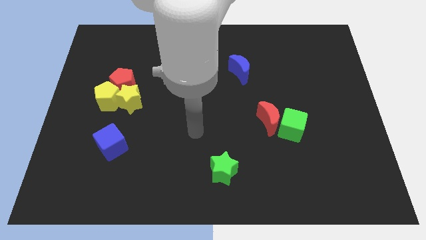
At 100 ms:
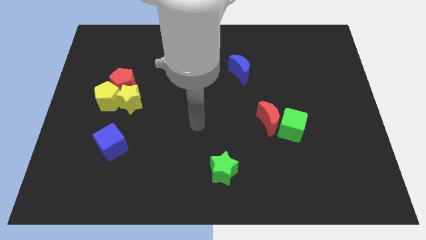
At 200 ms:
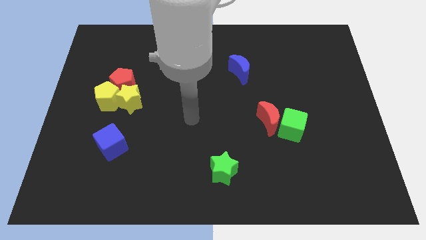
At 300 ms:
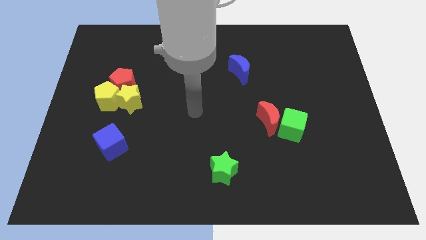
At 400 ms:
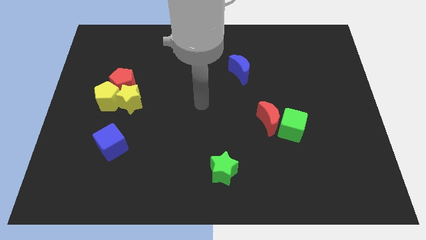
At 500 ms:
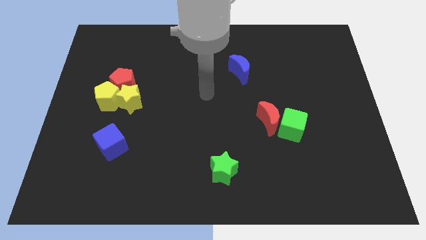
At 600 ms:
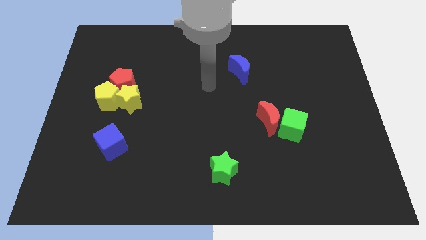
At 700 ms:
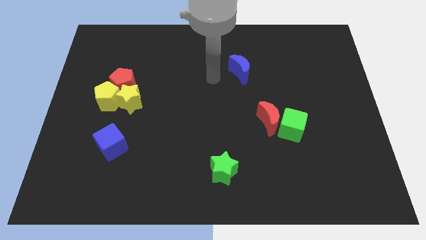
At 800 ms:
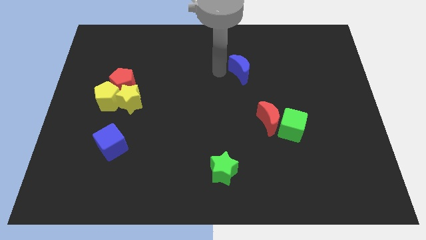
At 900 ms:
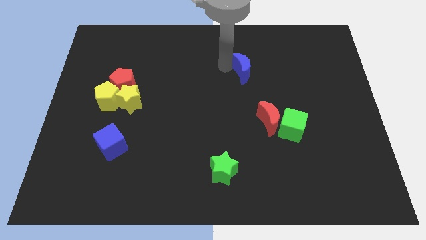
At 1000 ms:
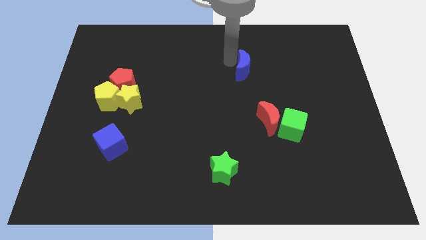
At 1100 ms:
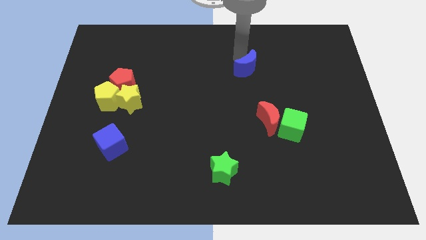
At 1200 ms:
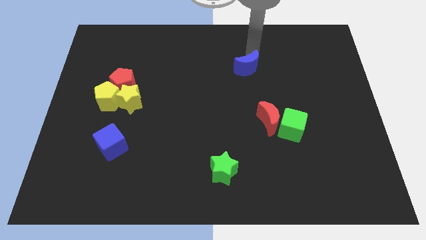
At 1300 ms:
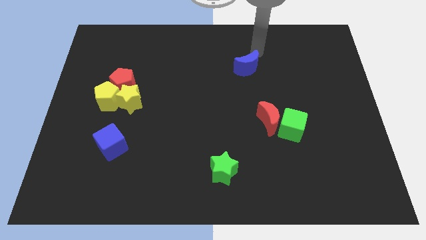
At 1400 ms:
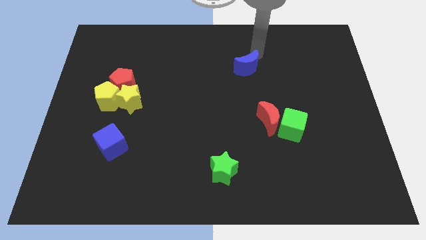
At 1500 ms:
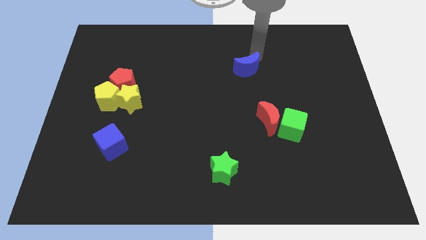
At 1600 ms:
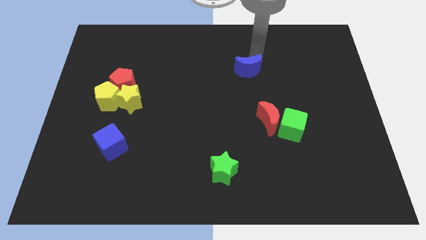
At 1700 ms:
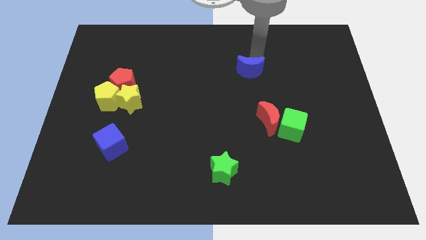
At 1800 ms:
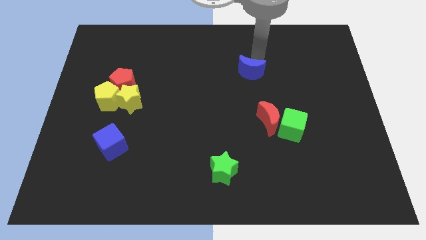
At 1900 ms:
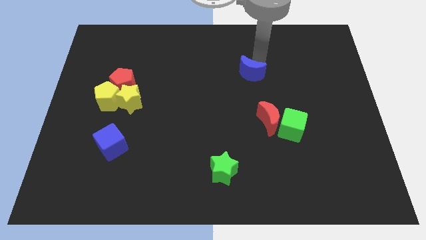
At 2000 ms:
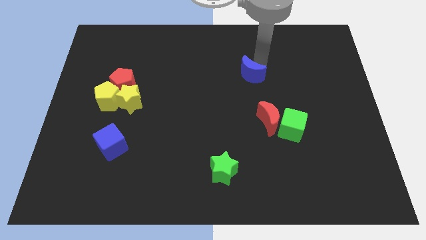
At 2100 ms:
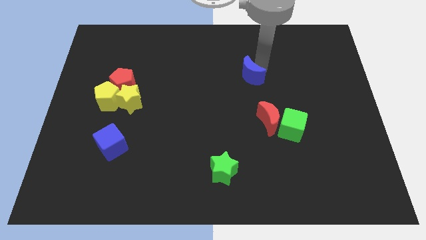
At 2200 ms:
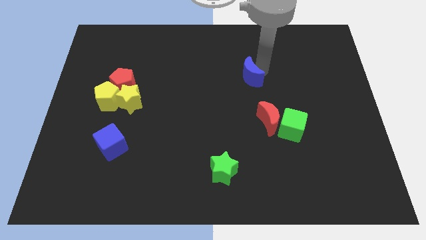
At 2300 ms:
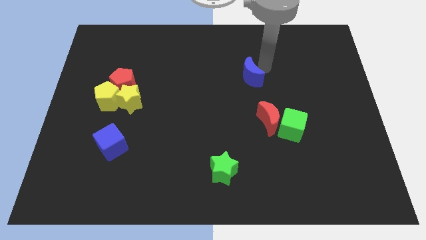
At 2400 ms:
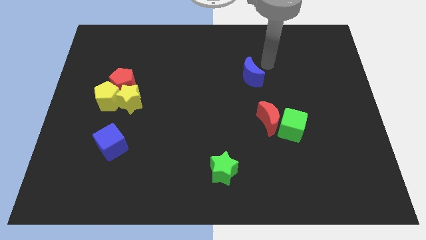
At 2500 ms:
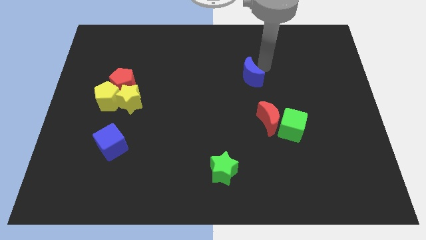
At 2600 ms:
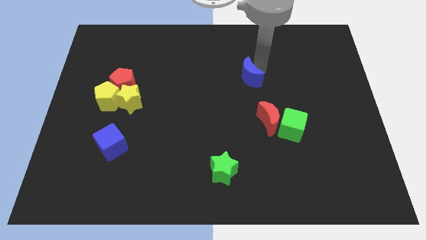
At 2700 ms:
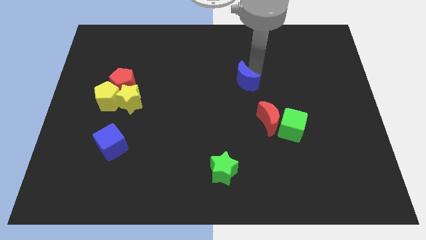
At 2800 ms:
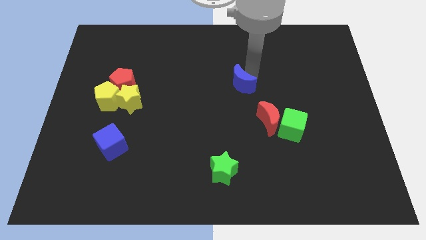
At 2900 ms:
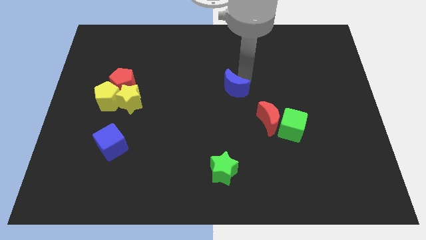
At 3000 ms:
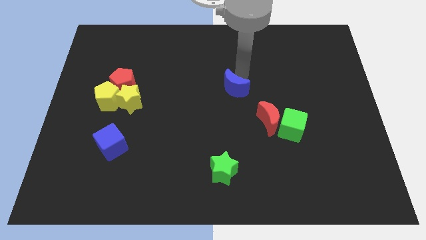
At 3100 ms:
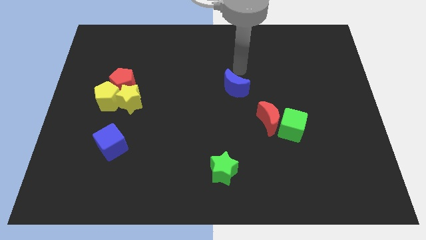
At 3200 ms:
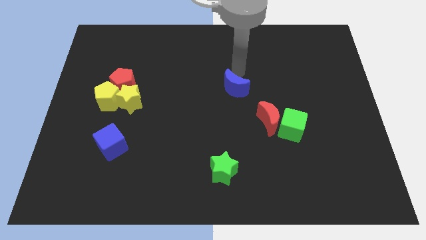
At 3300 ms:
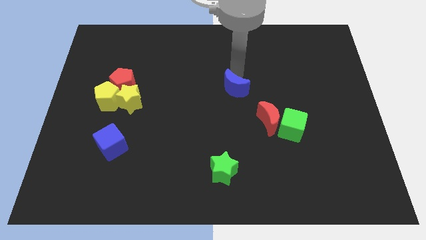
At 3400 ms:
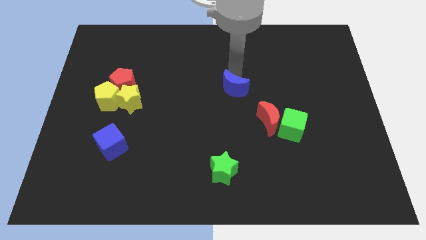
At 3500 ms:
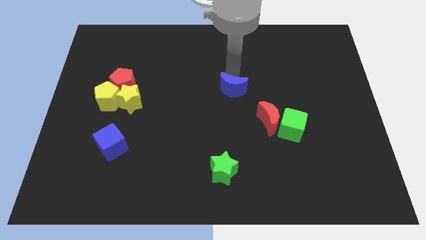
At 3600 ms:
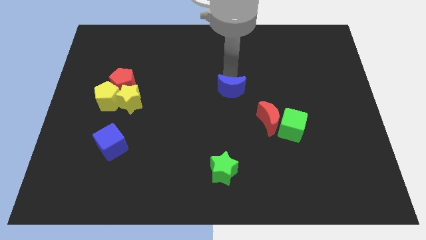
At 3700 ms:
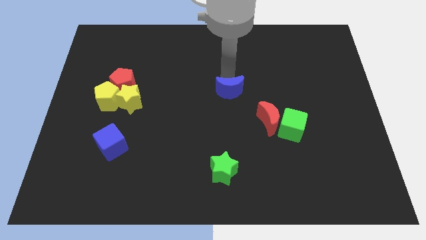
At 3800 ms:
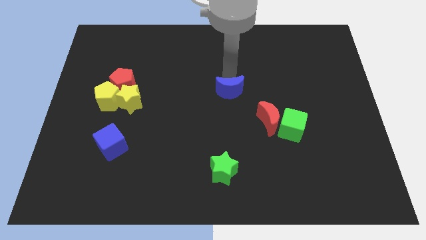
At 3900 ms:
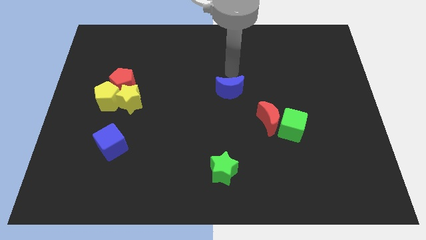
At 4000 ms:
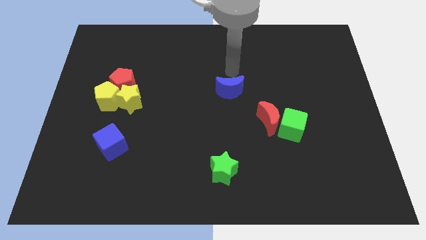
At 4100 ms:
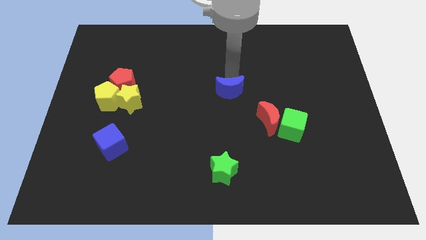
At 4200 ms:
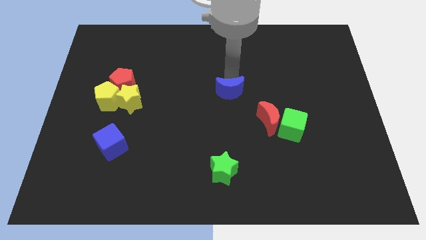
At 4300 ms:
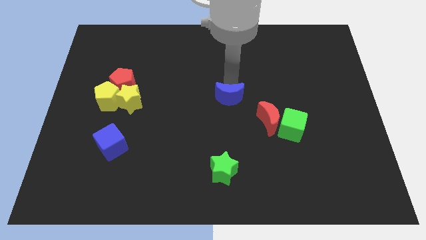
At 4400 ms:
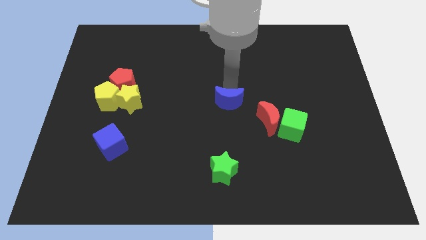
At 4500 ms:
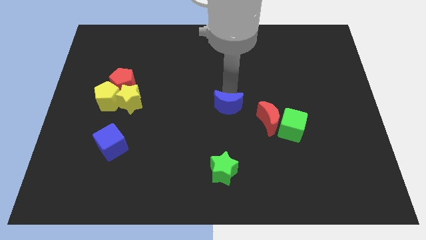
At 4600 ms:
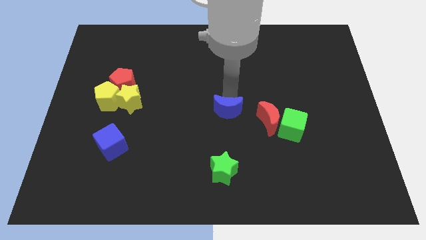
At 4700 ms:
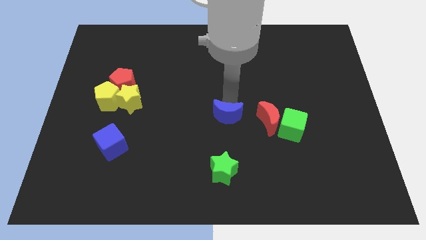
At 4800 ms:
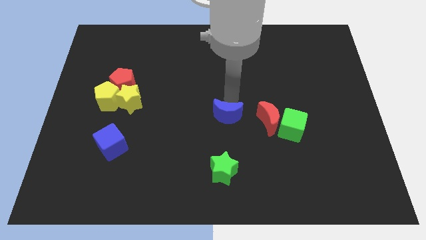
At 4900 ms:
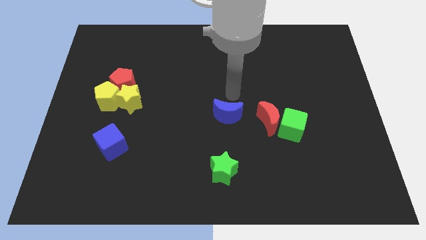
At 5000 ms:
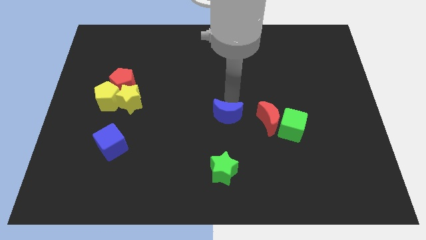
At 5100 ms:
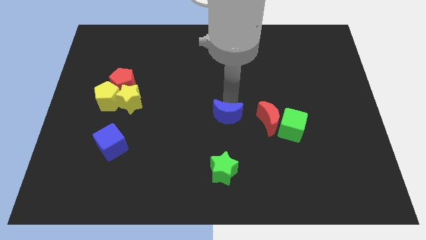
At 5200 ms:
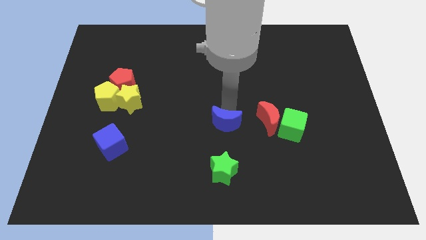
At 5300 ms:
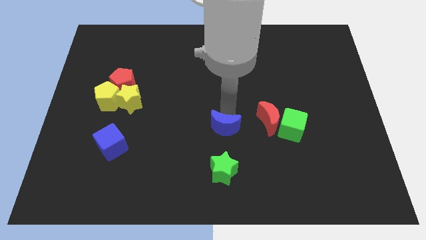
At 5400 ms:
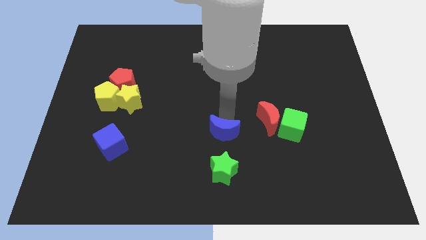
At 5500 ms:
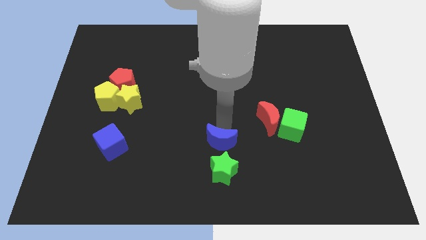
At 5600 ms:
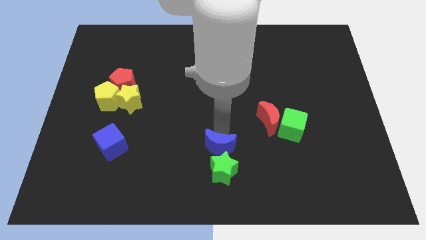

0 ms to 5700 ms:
put the blue moon next to the green star

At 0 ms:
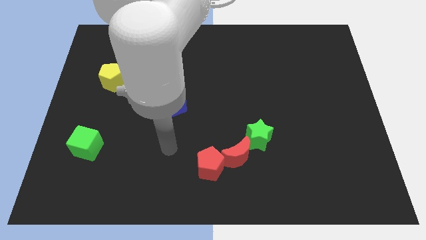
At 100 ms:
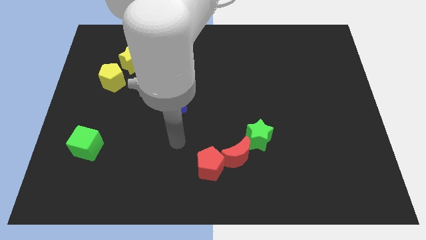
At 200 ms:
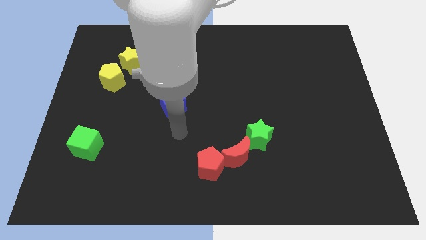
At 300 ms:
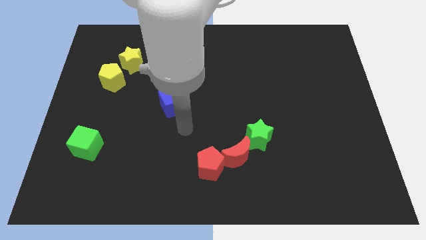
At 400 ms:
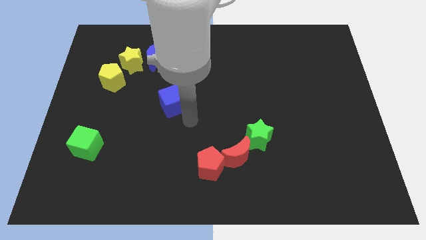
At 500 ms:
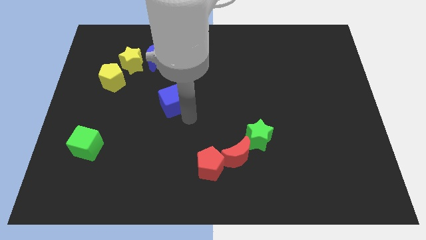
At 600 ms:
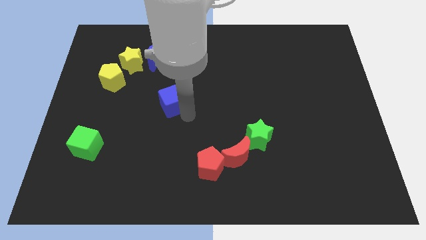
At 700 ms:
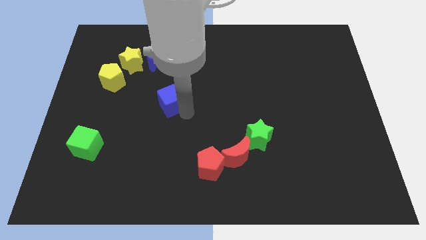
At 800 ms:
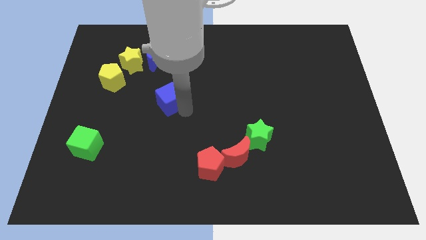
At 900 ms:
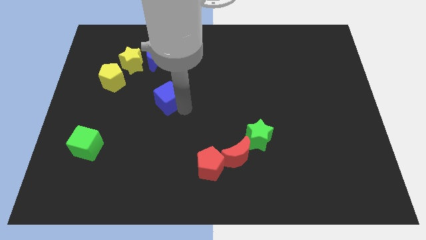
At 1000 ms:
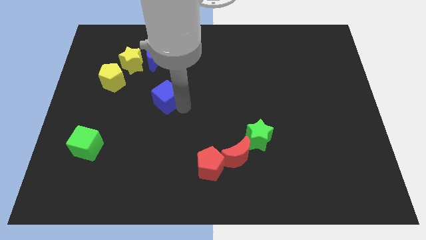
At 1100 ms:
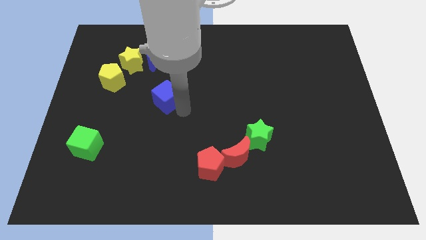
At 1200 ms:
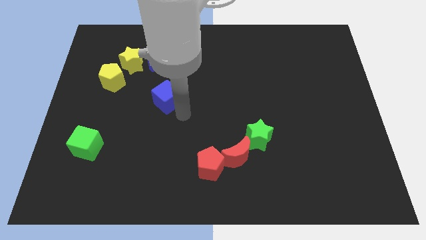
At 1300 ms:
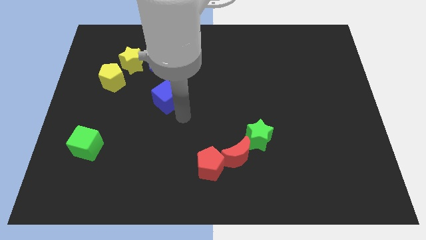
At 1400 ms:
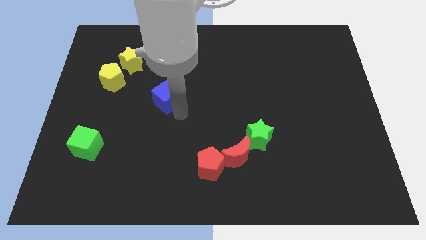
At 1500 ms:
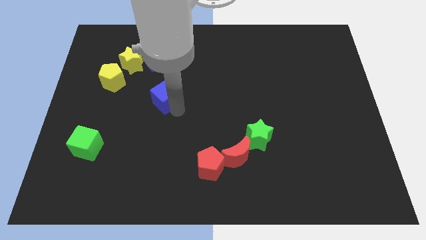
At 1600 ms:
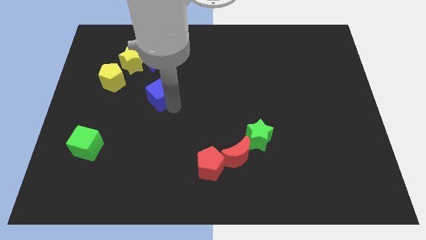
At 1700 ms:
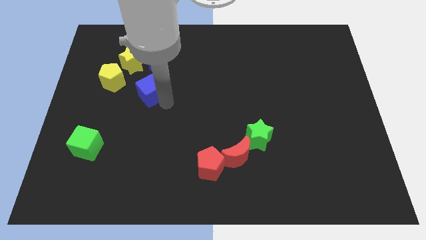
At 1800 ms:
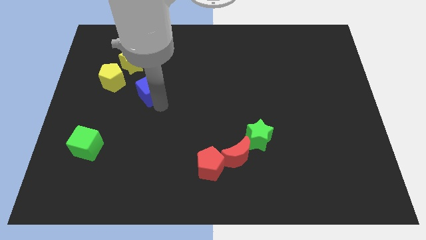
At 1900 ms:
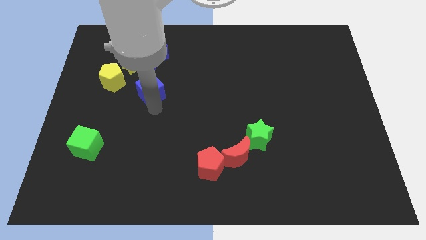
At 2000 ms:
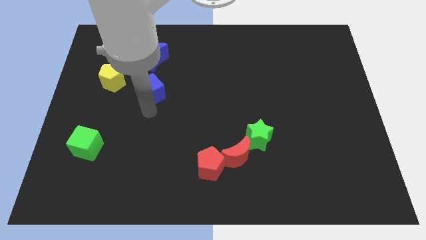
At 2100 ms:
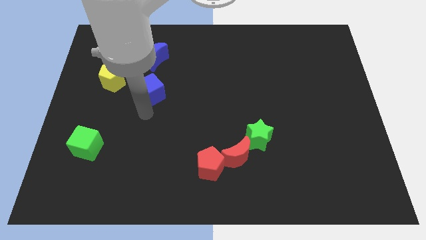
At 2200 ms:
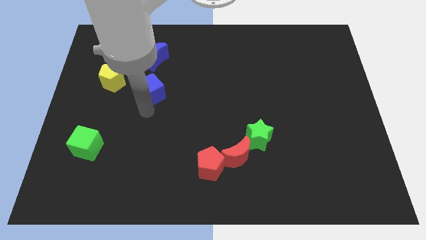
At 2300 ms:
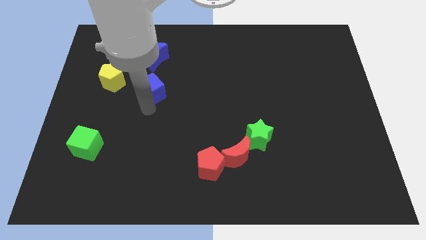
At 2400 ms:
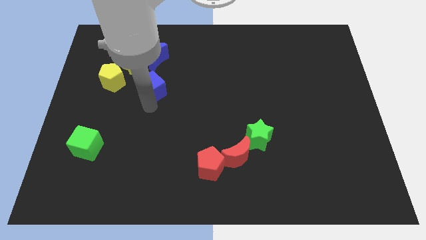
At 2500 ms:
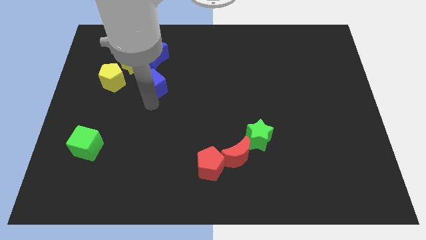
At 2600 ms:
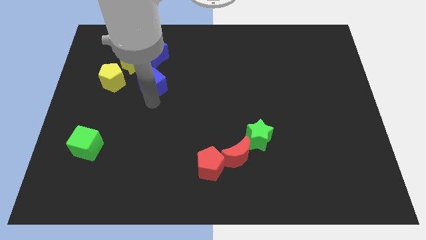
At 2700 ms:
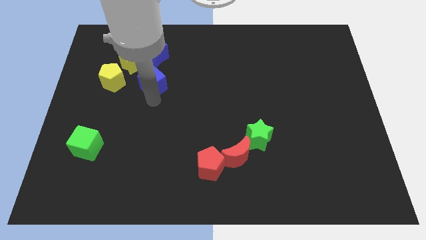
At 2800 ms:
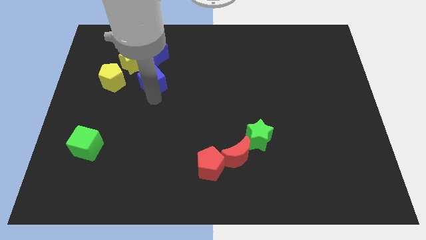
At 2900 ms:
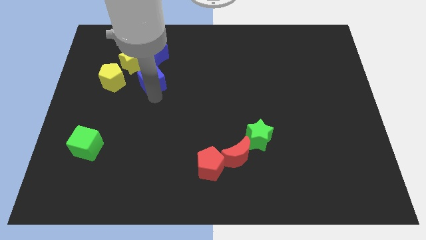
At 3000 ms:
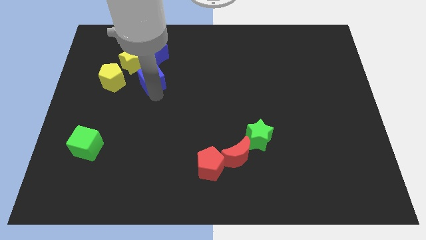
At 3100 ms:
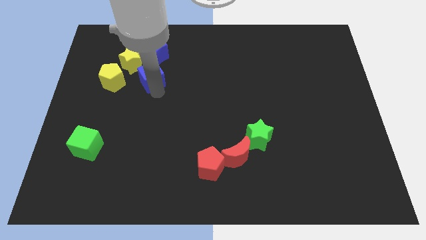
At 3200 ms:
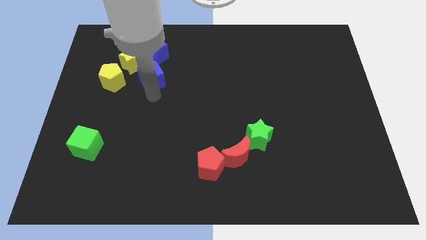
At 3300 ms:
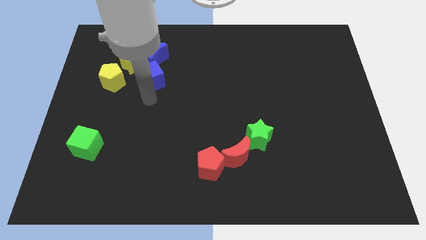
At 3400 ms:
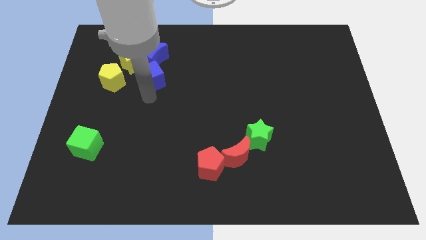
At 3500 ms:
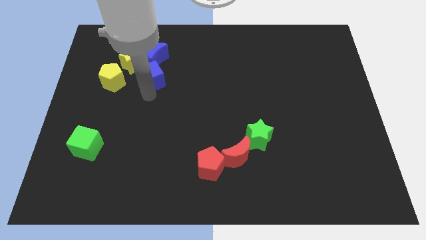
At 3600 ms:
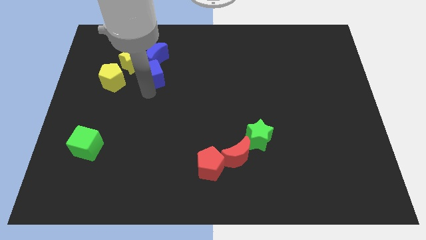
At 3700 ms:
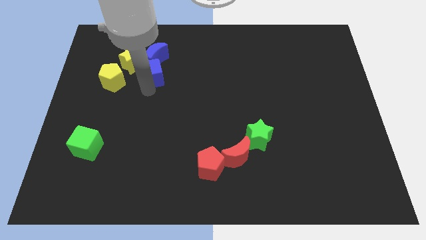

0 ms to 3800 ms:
slide the blue cube close to the blue moon
